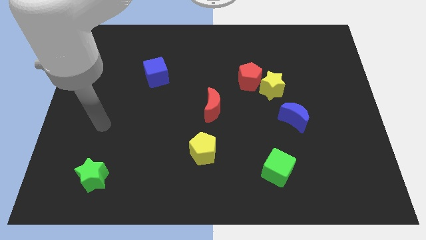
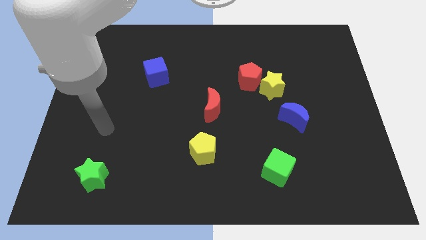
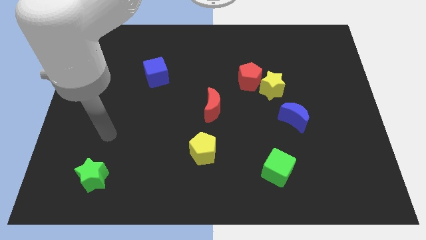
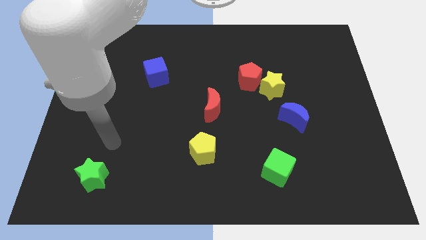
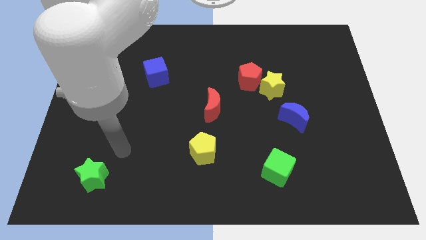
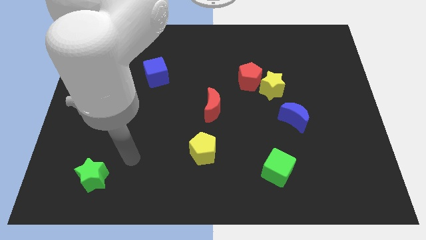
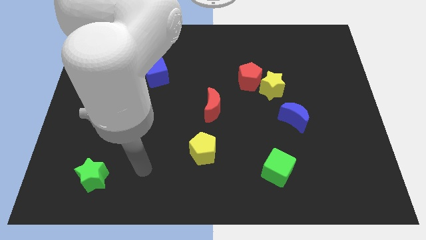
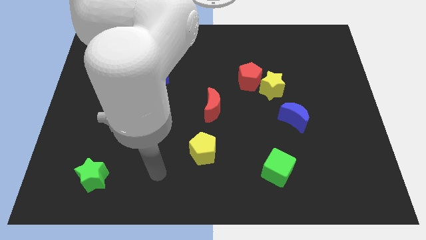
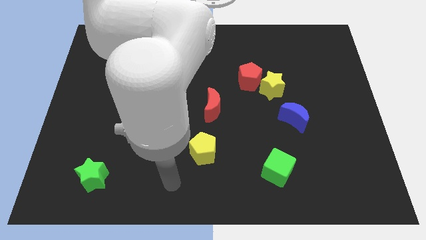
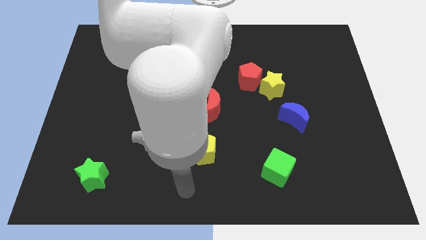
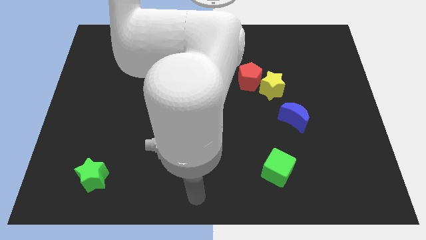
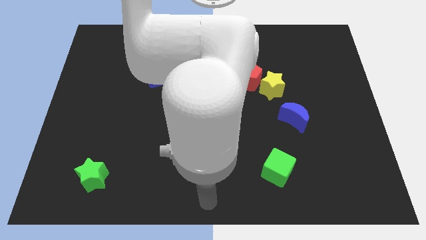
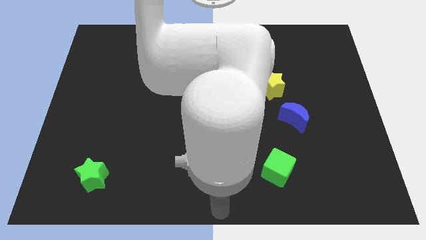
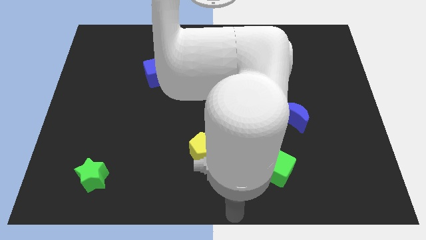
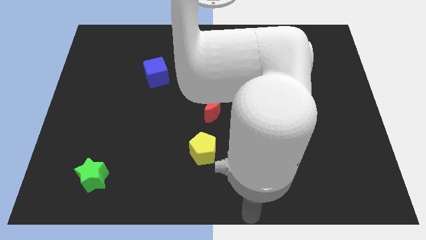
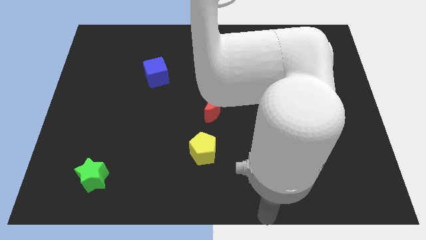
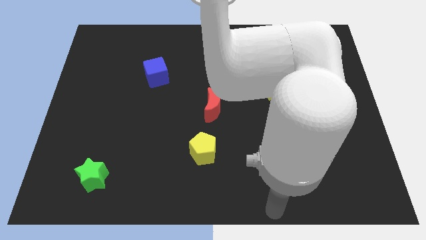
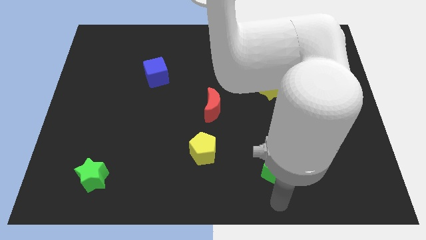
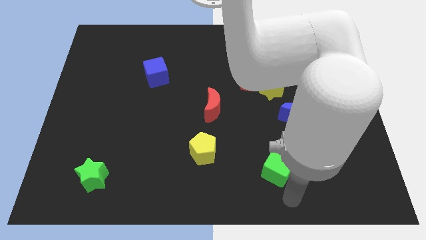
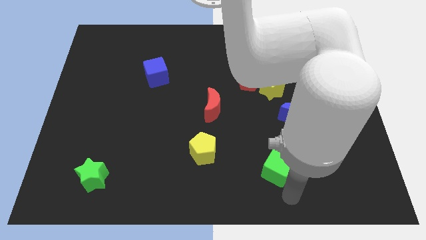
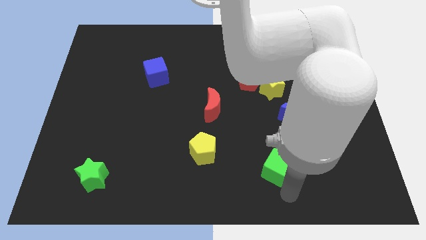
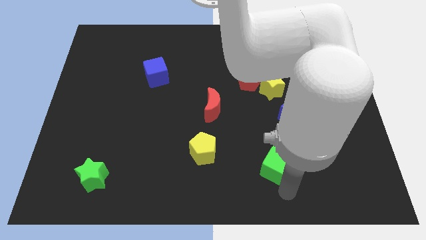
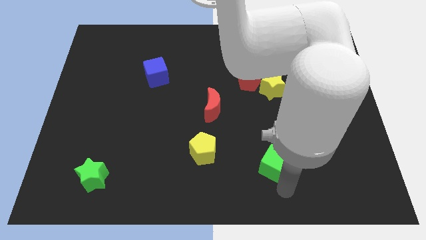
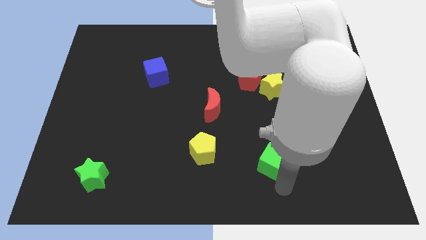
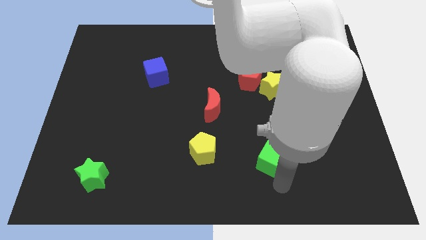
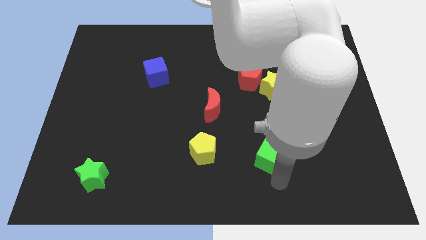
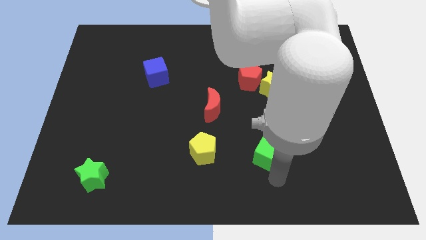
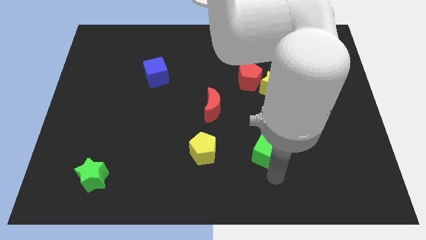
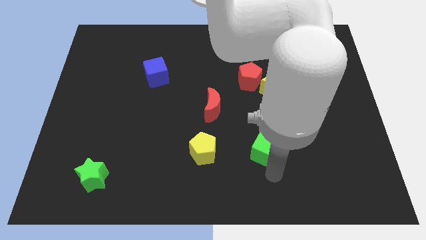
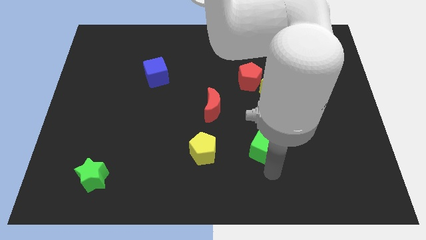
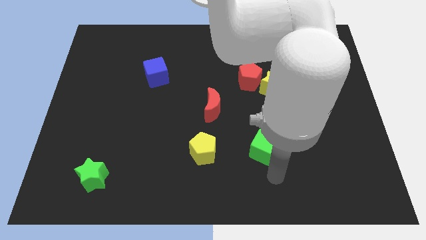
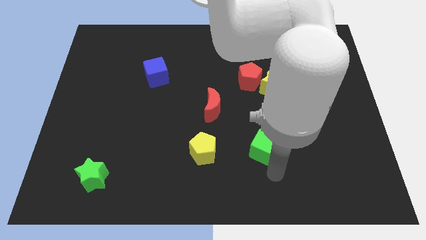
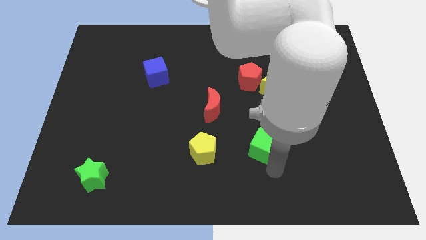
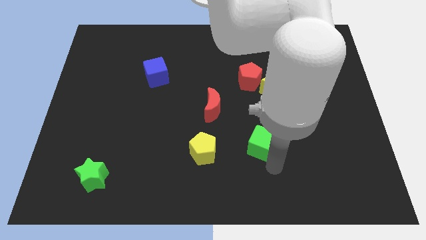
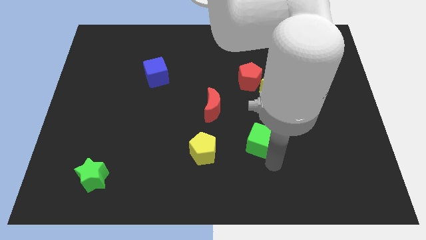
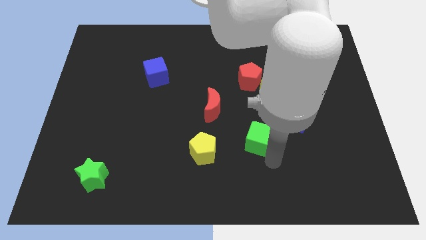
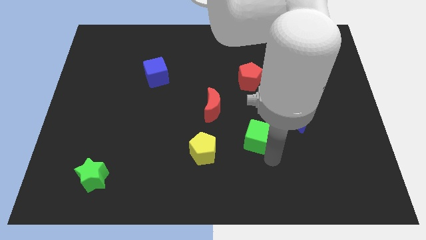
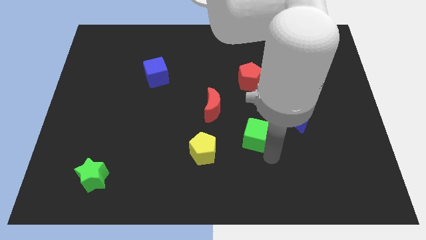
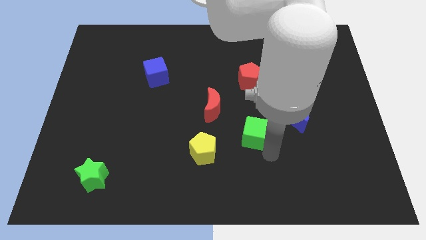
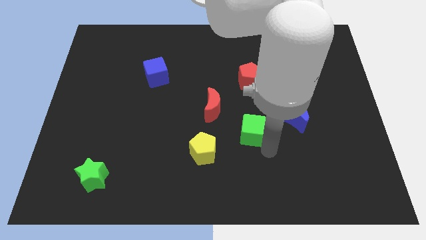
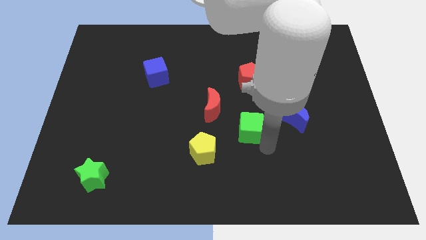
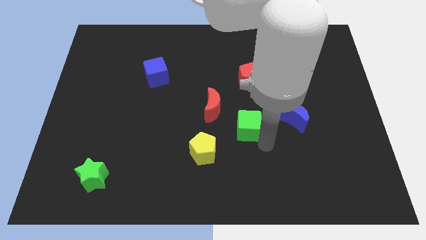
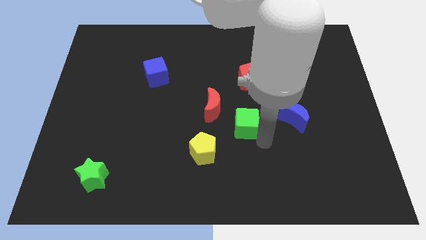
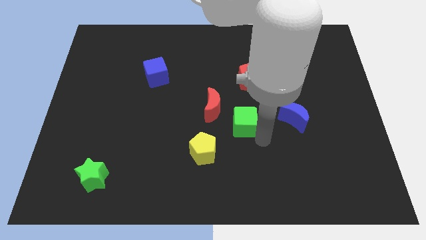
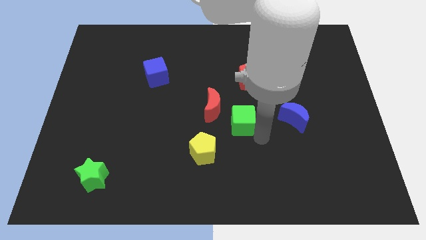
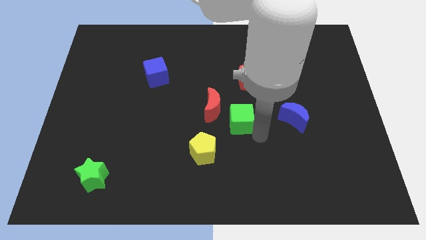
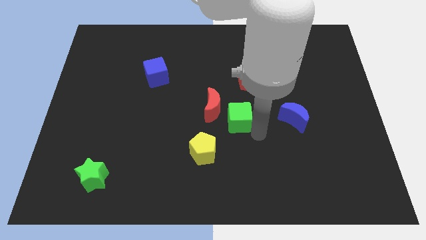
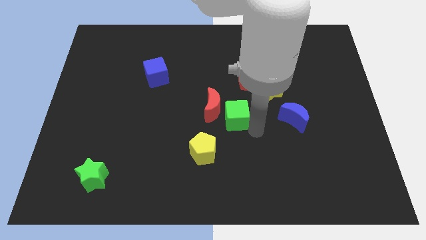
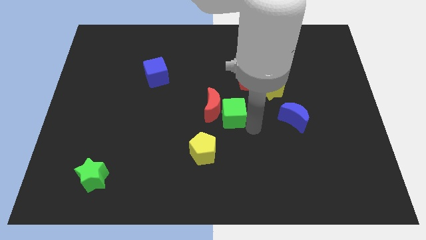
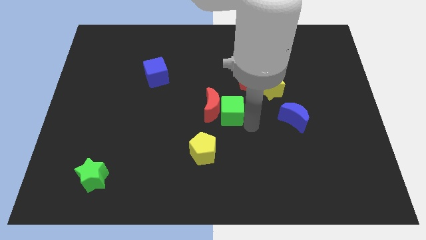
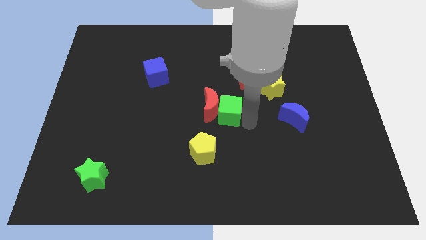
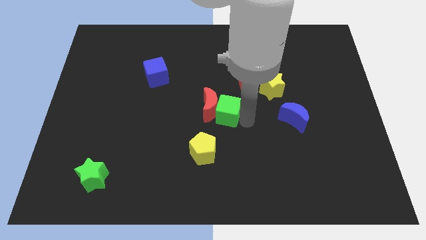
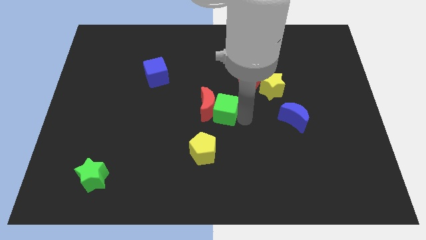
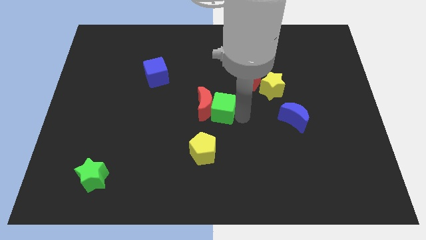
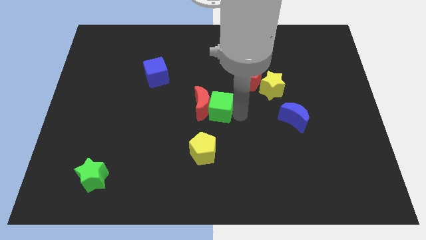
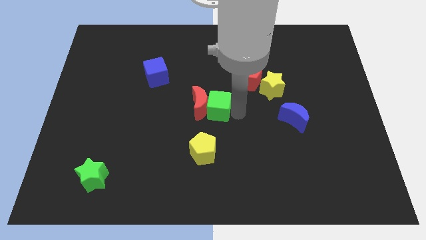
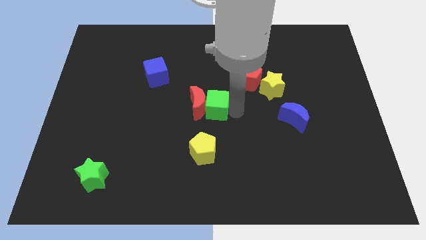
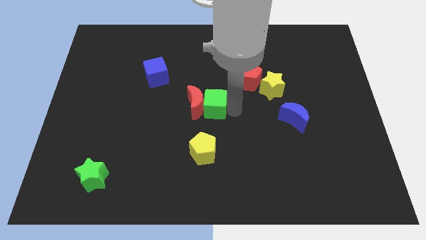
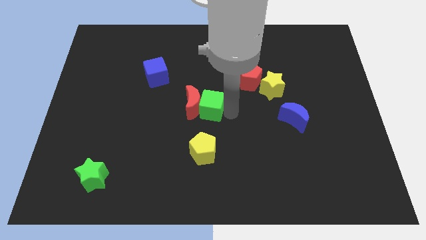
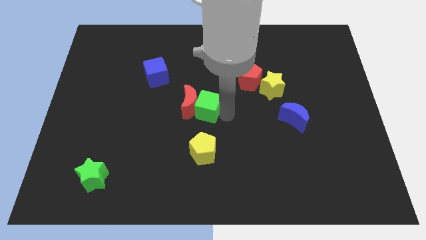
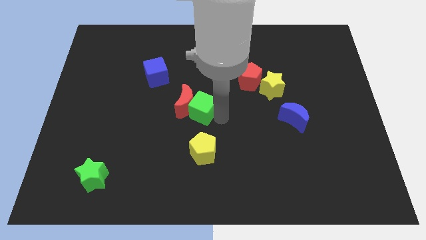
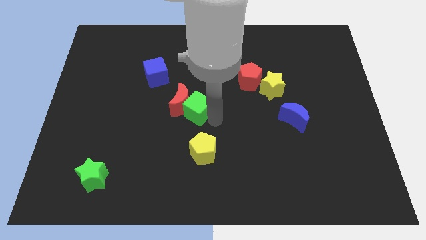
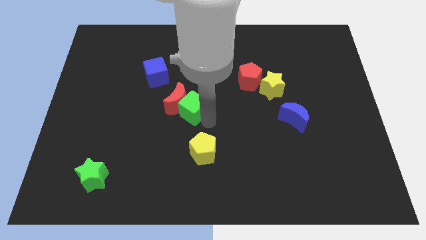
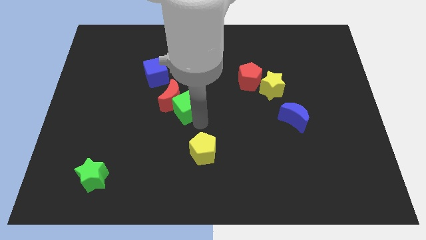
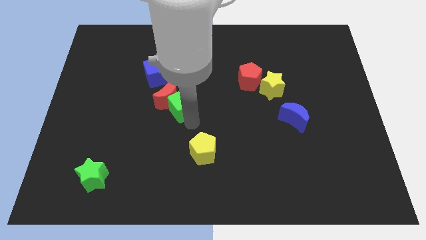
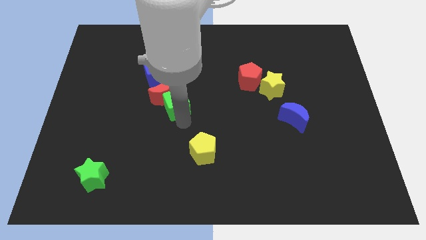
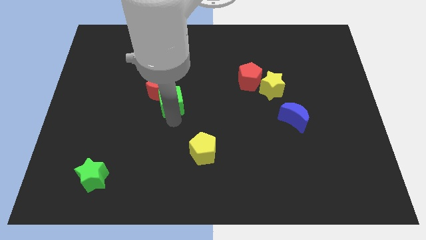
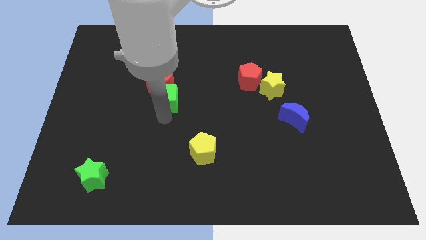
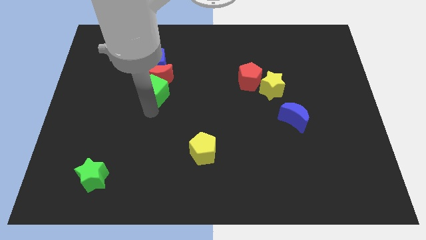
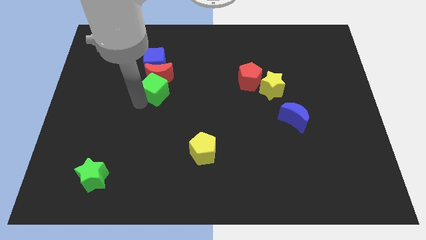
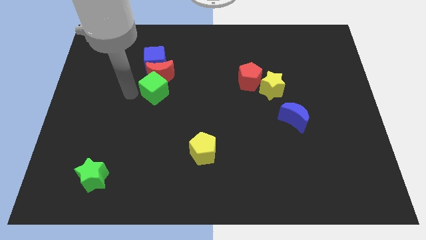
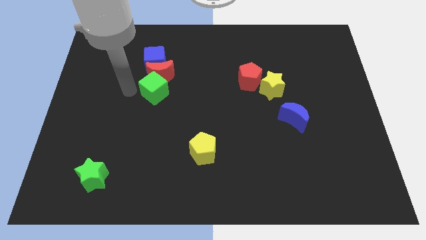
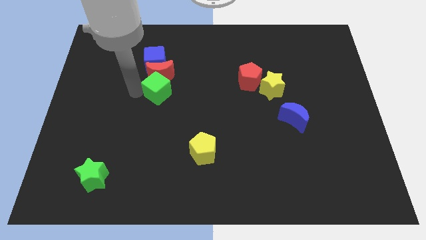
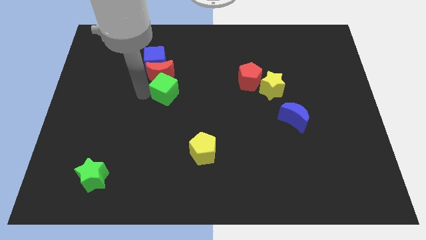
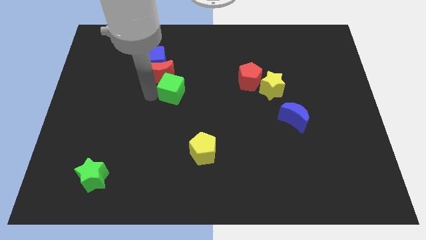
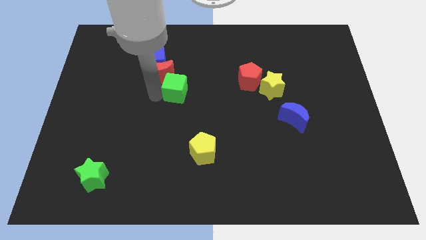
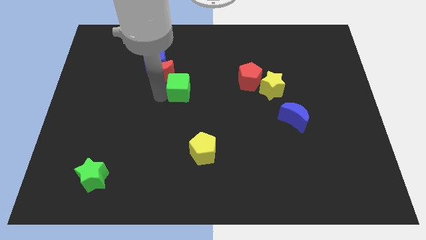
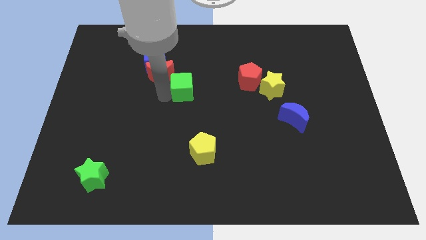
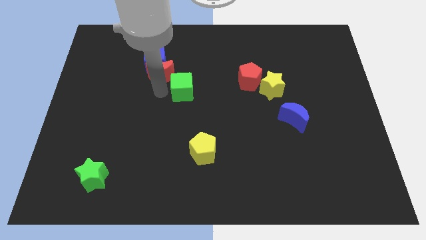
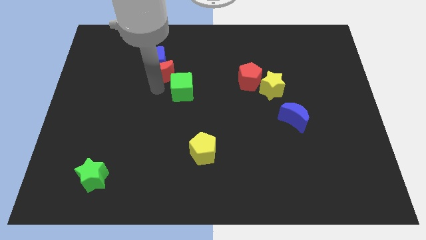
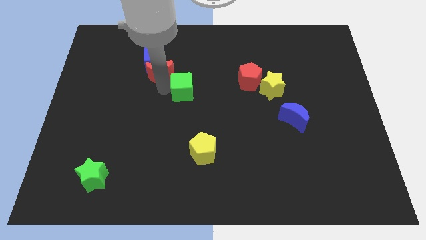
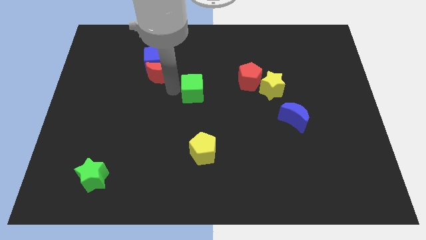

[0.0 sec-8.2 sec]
put the green cube to the left of the red pentagon
